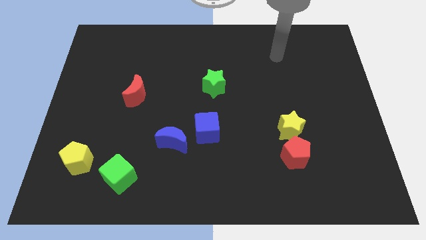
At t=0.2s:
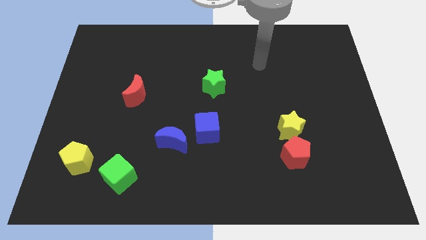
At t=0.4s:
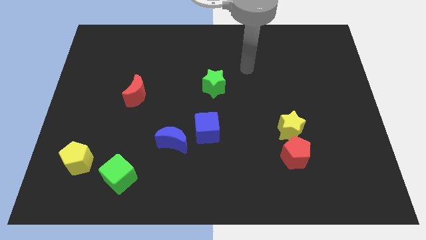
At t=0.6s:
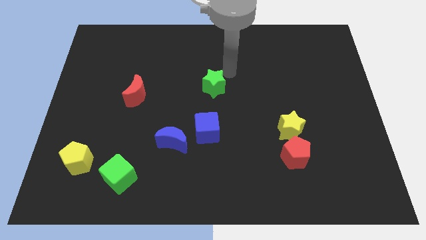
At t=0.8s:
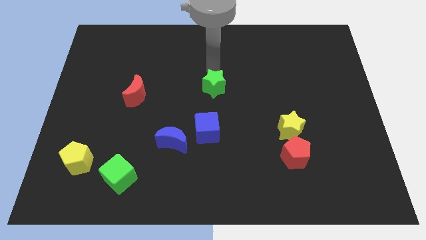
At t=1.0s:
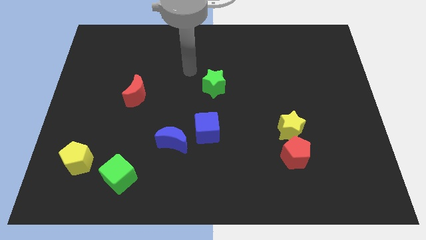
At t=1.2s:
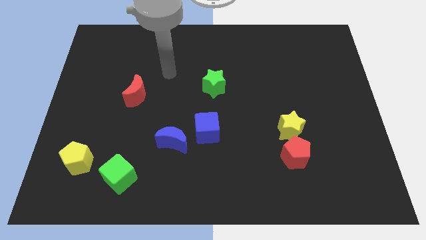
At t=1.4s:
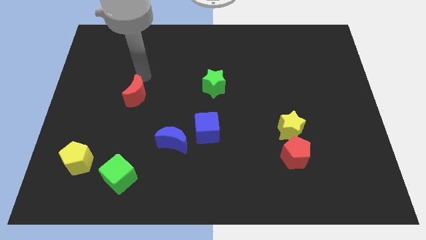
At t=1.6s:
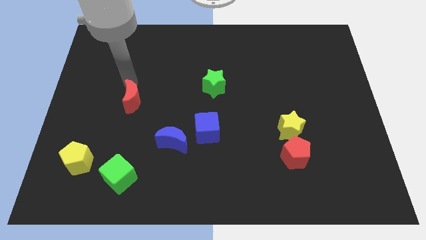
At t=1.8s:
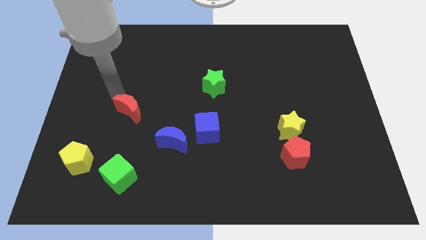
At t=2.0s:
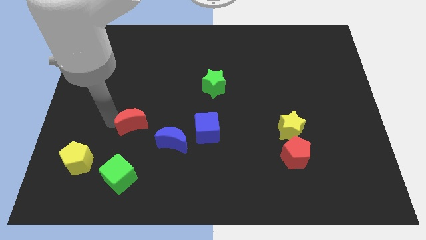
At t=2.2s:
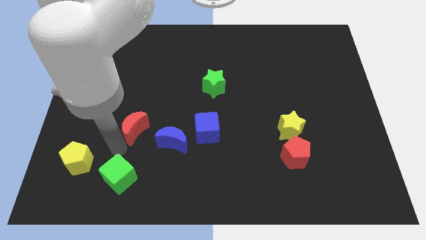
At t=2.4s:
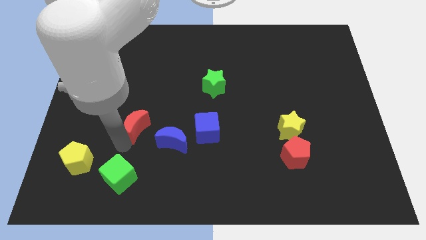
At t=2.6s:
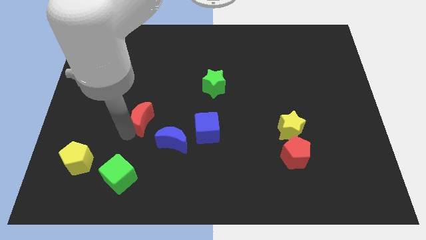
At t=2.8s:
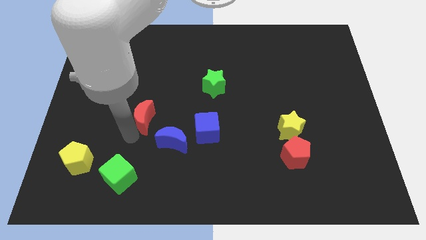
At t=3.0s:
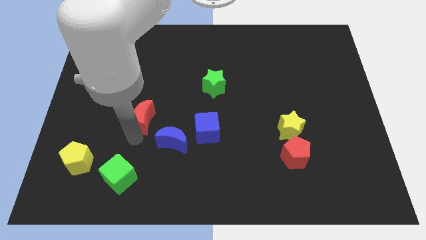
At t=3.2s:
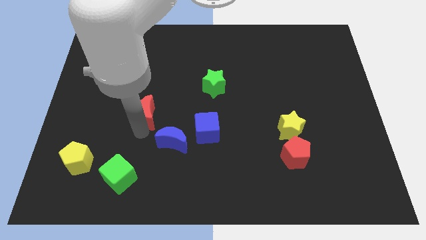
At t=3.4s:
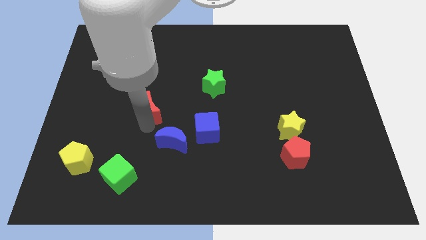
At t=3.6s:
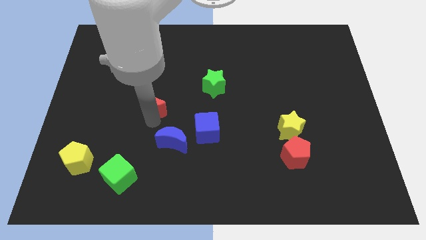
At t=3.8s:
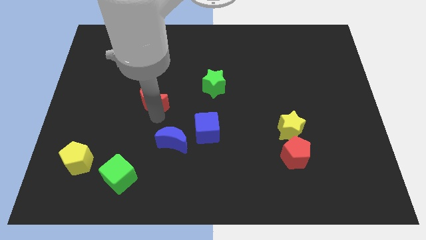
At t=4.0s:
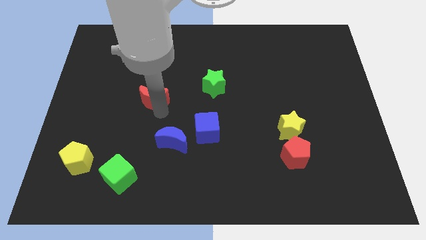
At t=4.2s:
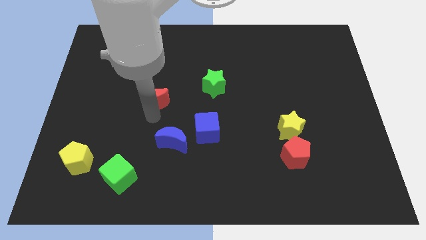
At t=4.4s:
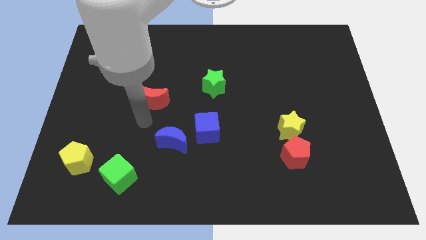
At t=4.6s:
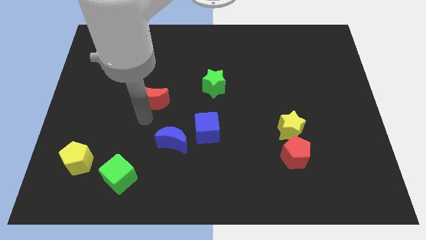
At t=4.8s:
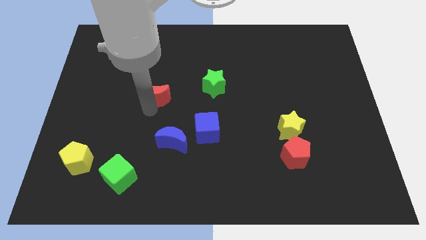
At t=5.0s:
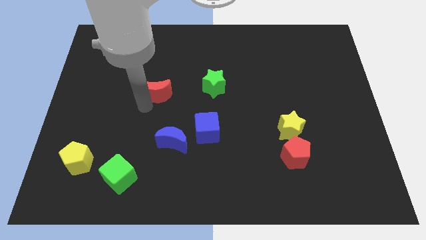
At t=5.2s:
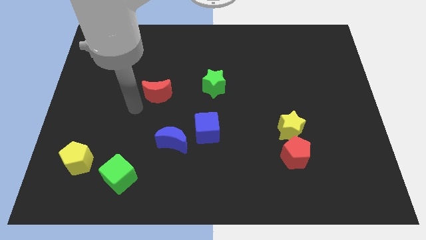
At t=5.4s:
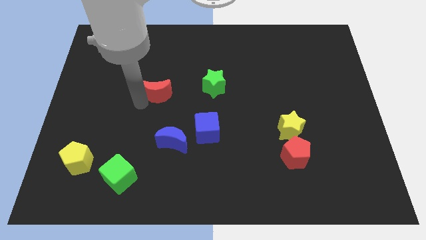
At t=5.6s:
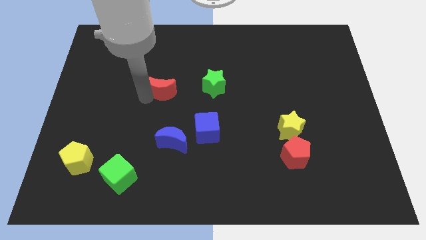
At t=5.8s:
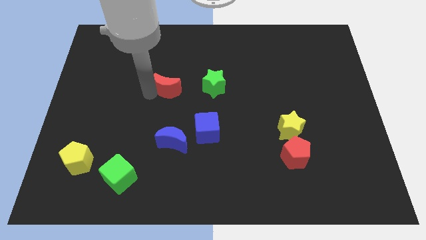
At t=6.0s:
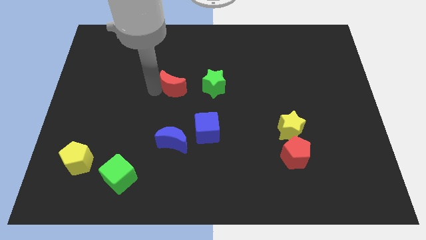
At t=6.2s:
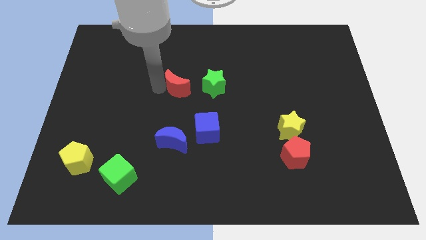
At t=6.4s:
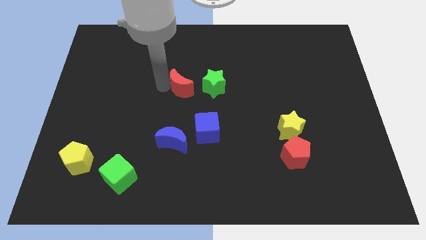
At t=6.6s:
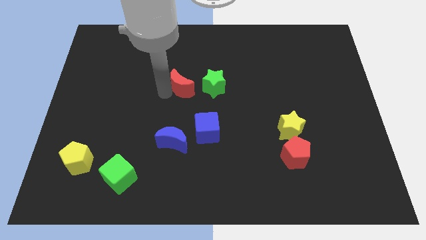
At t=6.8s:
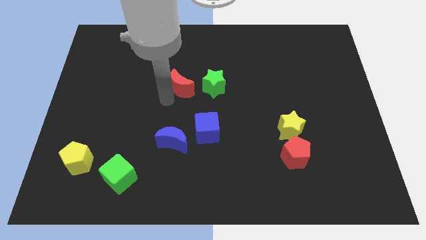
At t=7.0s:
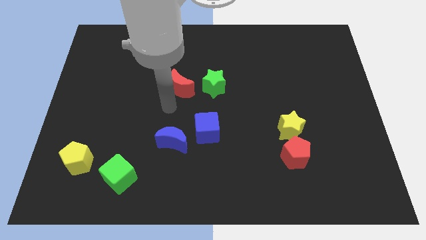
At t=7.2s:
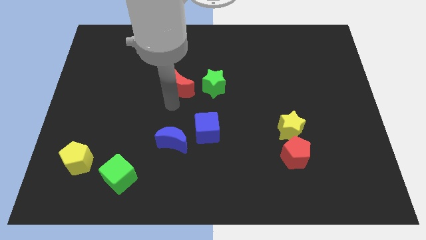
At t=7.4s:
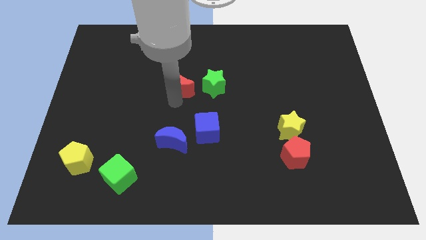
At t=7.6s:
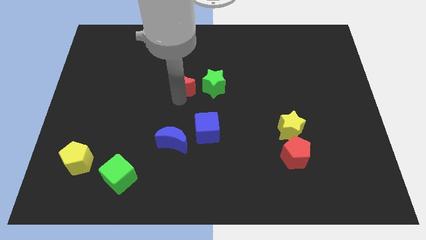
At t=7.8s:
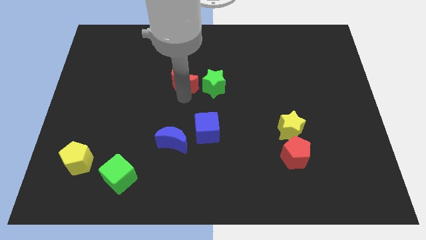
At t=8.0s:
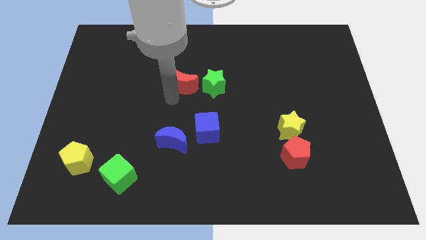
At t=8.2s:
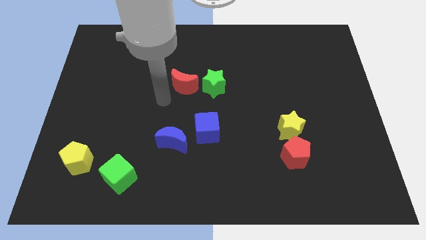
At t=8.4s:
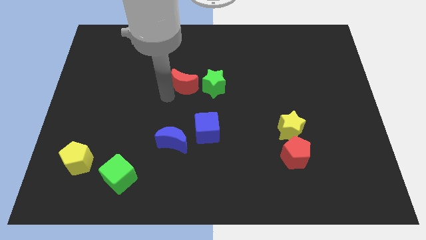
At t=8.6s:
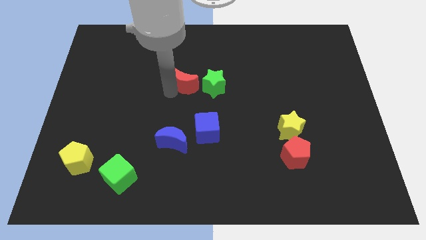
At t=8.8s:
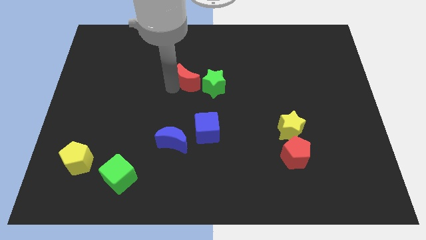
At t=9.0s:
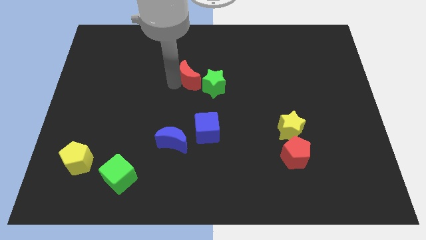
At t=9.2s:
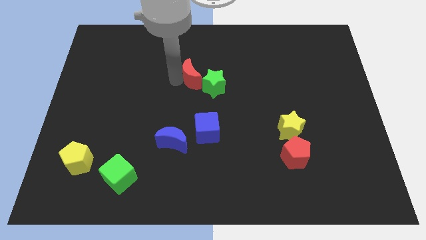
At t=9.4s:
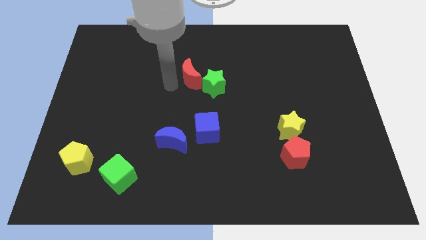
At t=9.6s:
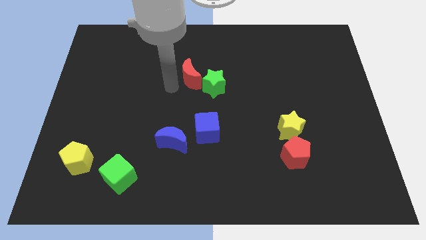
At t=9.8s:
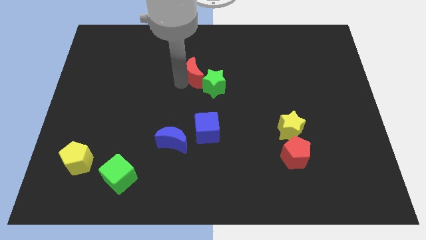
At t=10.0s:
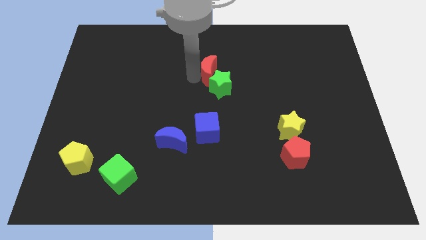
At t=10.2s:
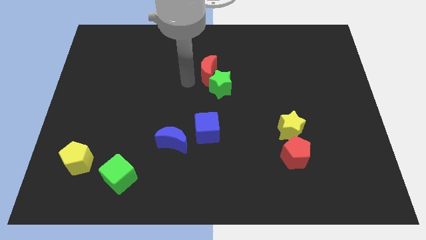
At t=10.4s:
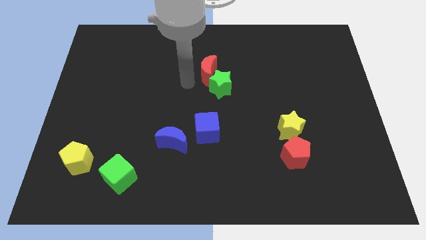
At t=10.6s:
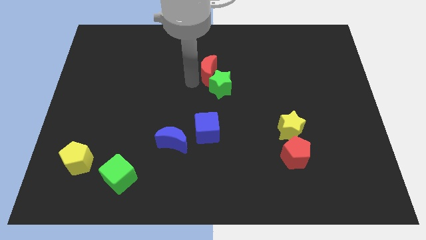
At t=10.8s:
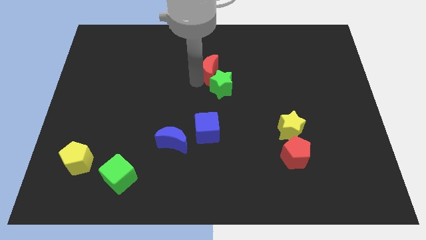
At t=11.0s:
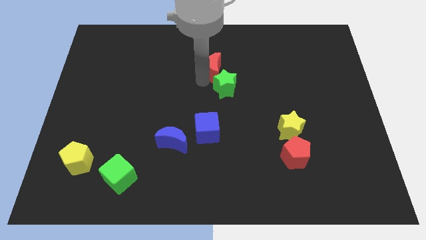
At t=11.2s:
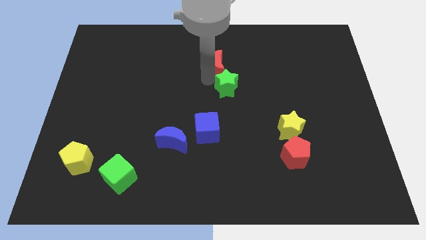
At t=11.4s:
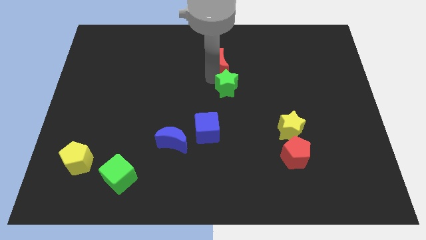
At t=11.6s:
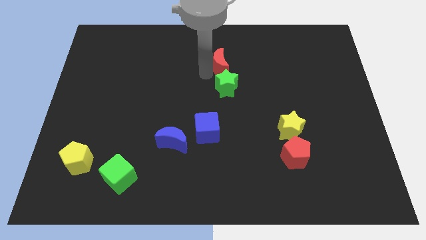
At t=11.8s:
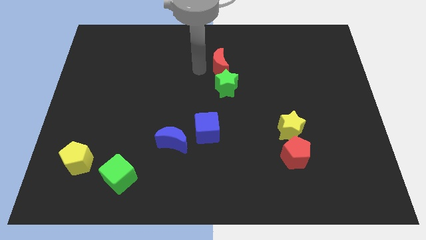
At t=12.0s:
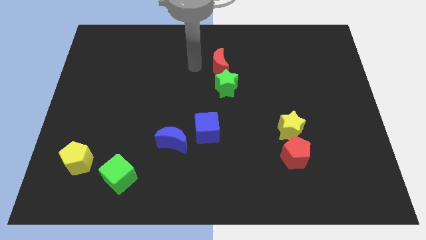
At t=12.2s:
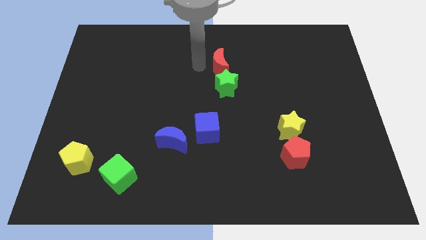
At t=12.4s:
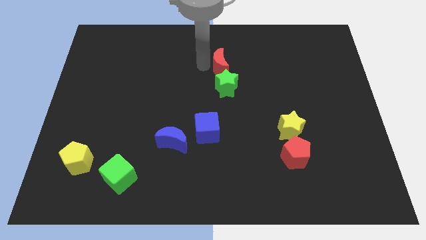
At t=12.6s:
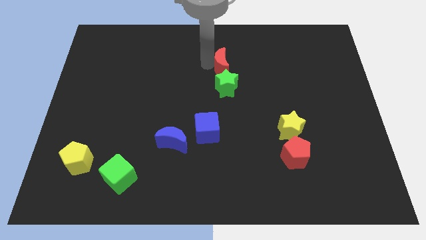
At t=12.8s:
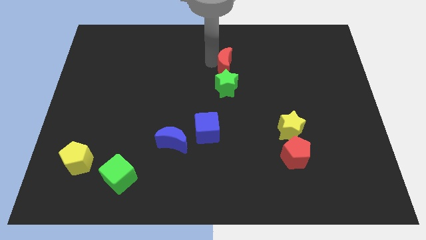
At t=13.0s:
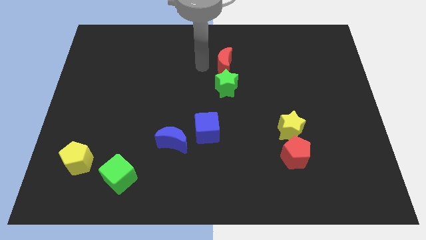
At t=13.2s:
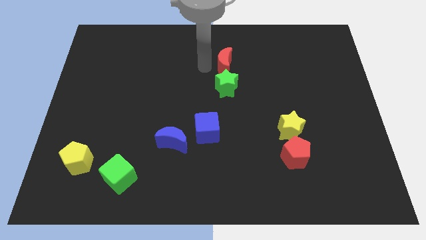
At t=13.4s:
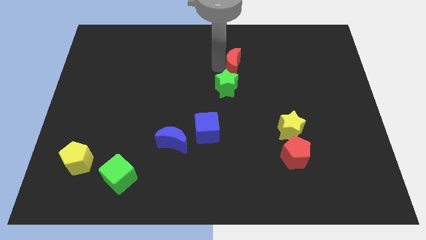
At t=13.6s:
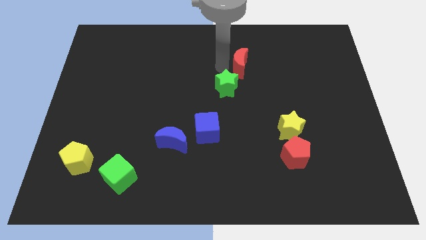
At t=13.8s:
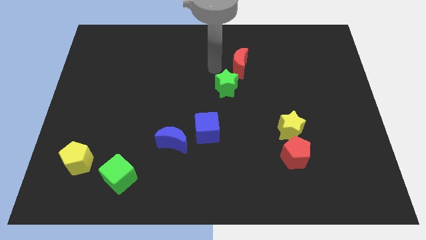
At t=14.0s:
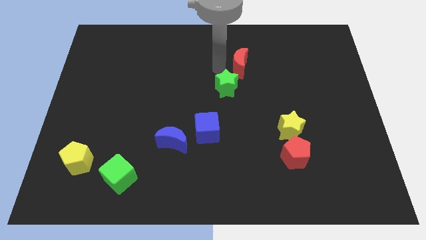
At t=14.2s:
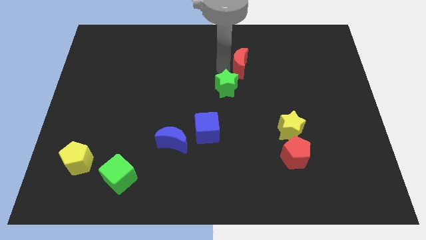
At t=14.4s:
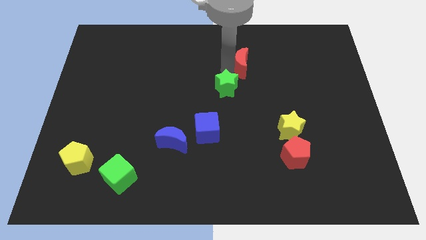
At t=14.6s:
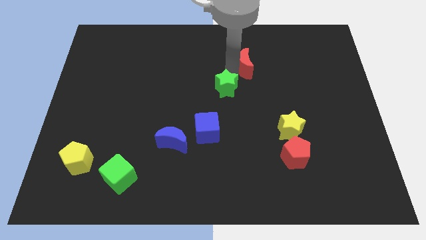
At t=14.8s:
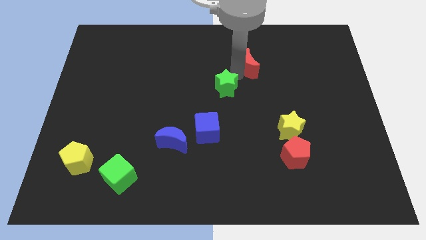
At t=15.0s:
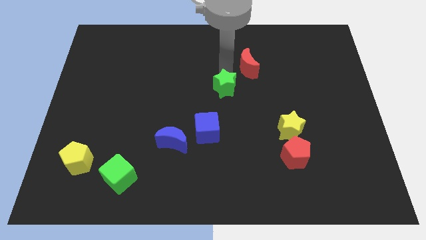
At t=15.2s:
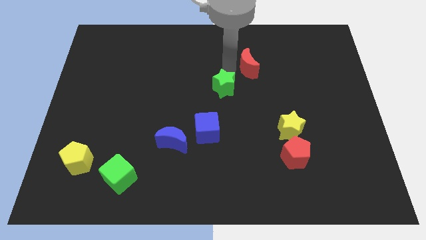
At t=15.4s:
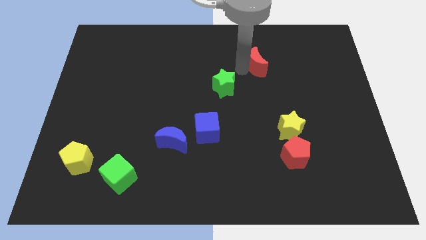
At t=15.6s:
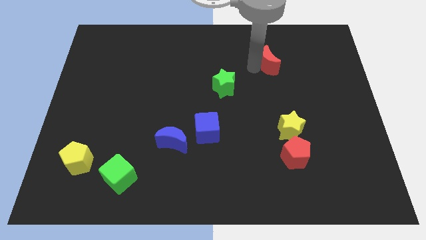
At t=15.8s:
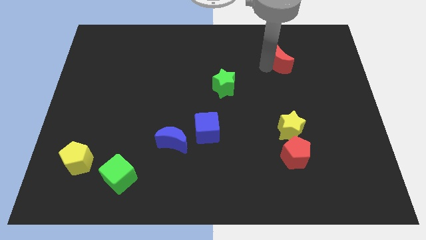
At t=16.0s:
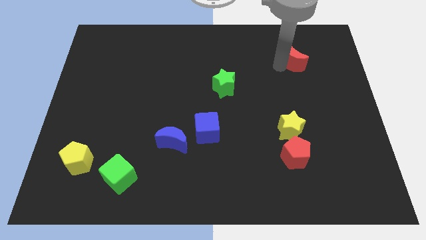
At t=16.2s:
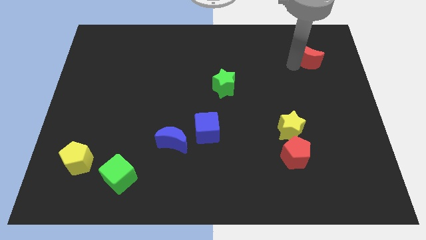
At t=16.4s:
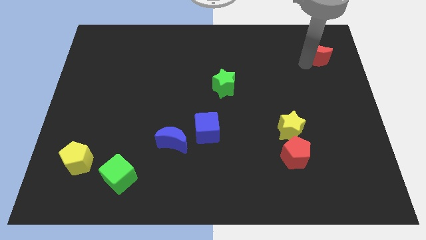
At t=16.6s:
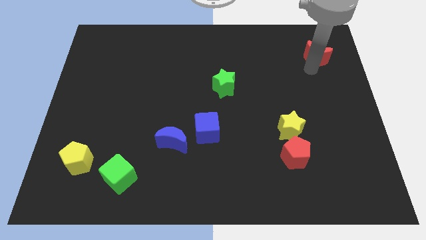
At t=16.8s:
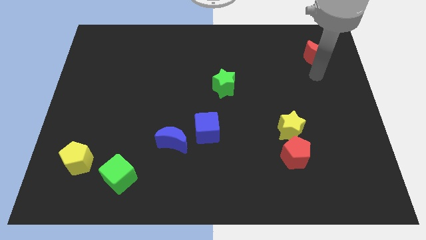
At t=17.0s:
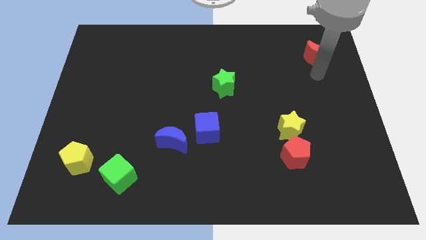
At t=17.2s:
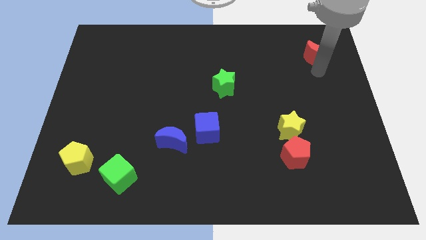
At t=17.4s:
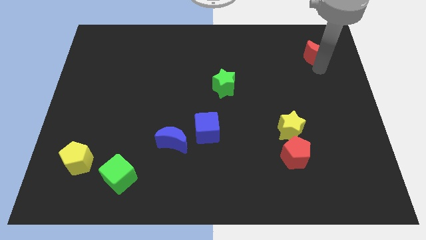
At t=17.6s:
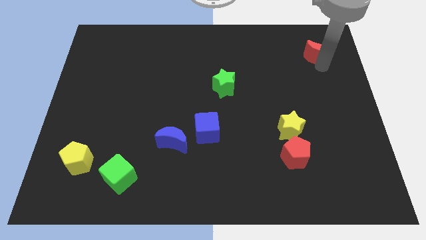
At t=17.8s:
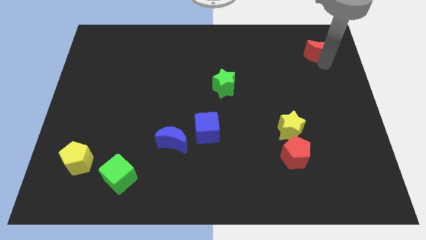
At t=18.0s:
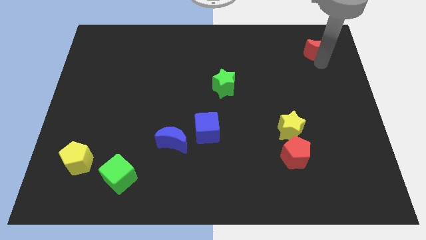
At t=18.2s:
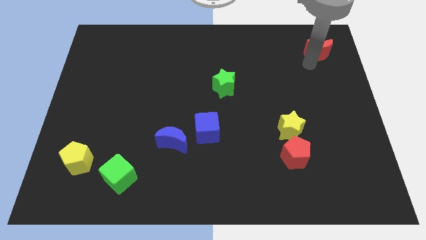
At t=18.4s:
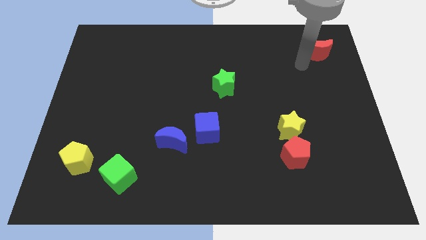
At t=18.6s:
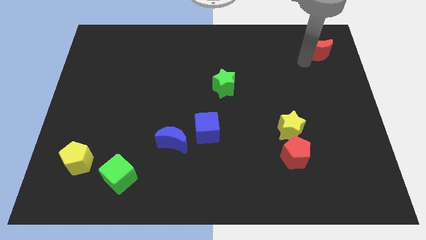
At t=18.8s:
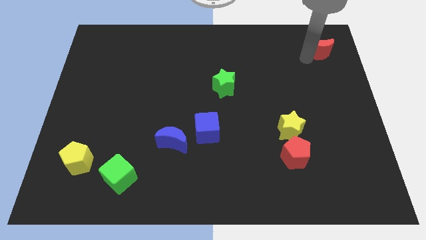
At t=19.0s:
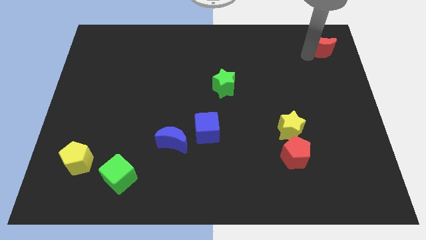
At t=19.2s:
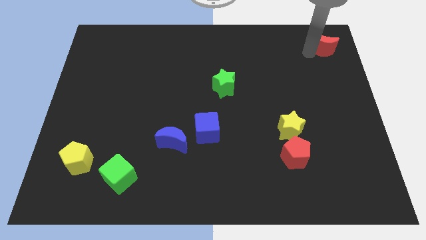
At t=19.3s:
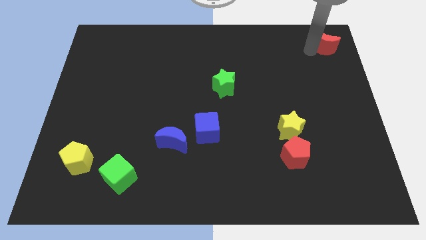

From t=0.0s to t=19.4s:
move the red moon to the upper right corner
